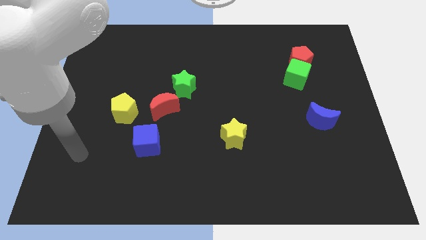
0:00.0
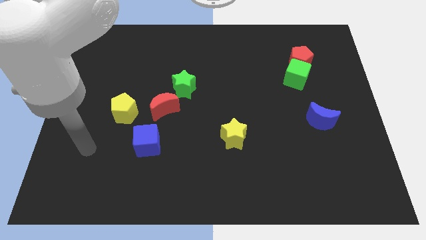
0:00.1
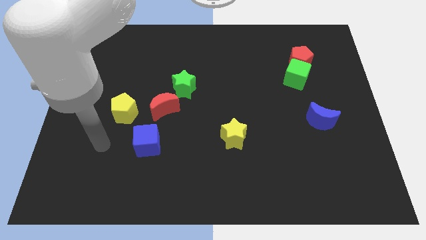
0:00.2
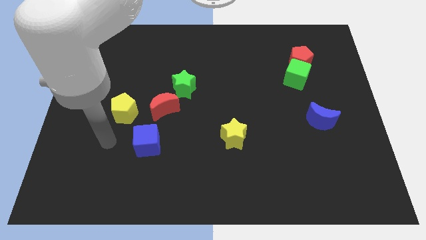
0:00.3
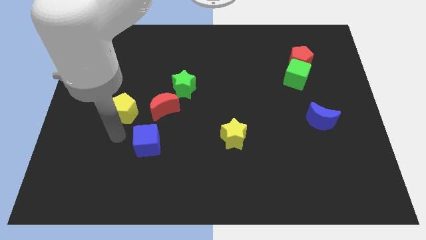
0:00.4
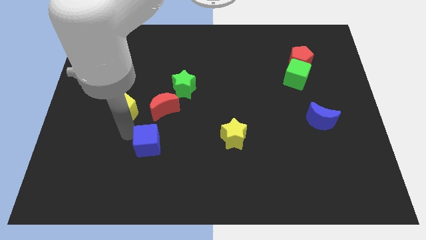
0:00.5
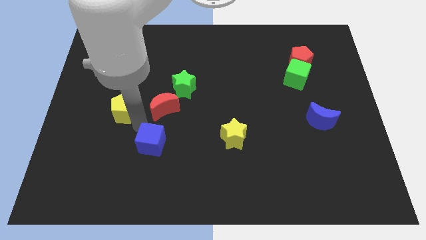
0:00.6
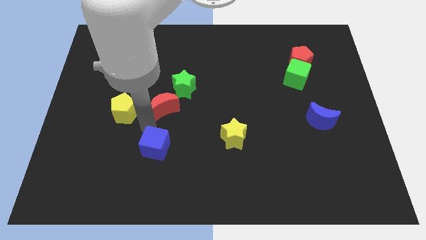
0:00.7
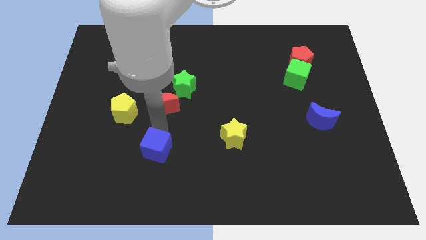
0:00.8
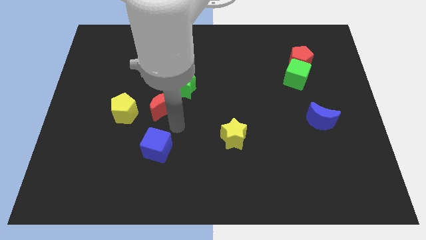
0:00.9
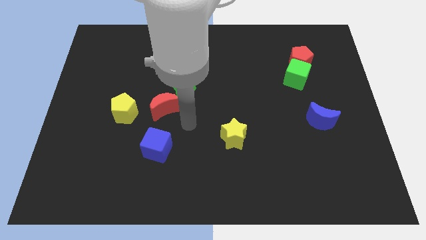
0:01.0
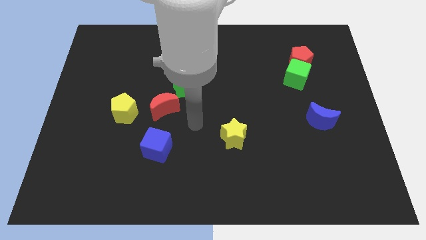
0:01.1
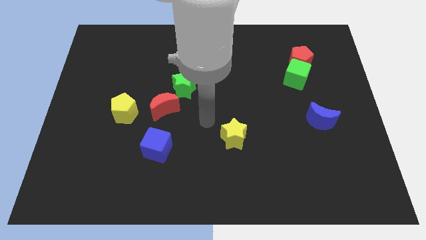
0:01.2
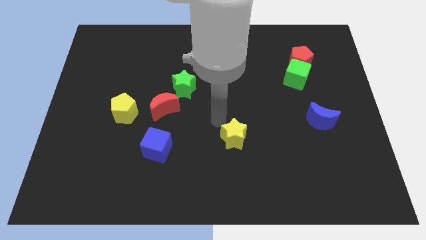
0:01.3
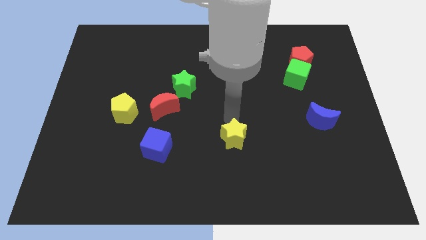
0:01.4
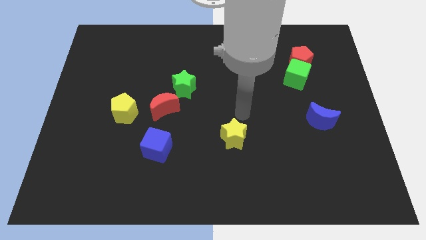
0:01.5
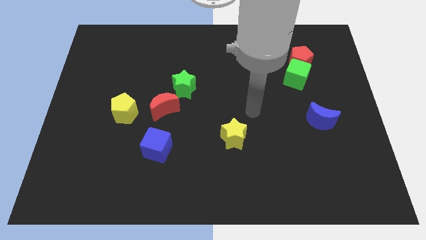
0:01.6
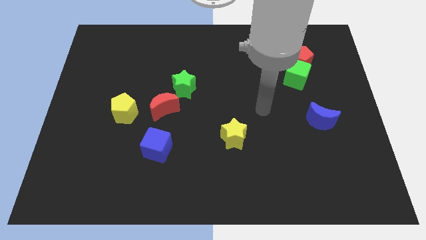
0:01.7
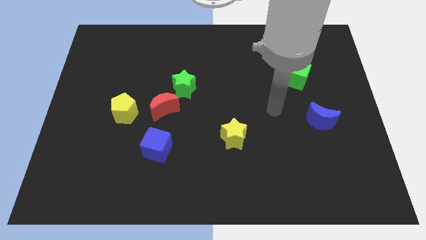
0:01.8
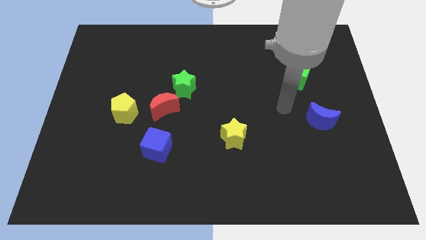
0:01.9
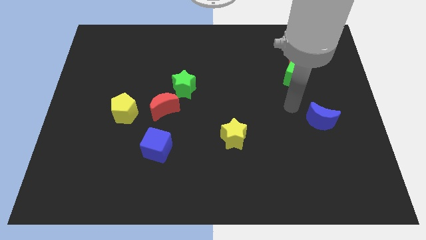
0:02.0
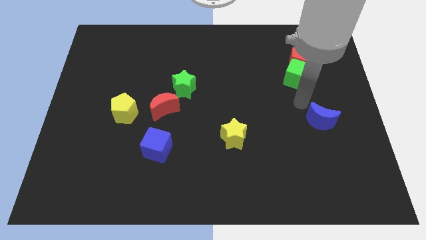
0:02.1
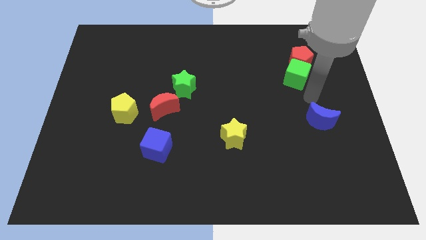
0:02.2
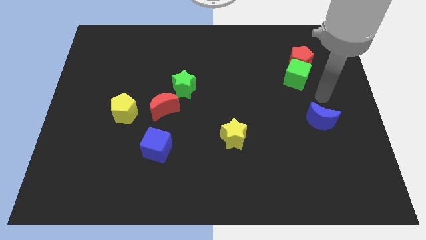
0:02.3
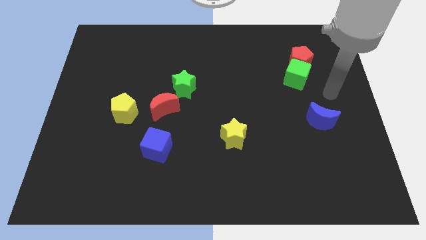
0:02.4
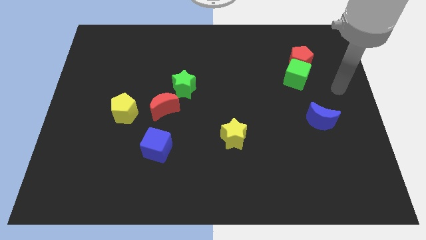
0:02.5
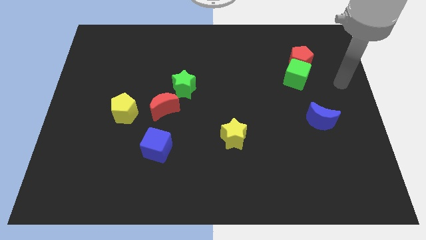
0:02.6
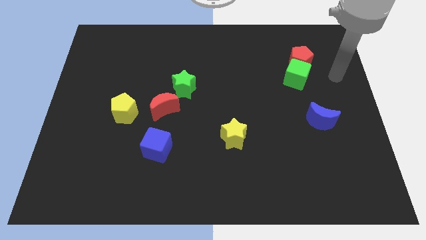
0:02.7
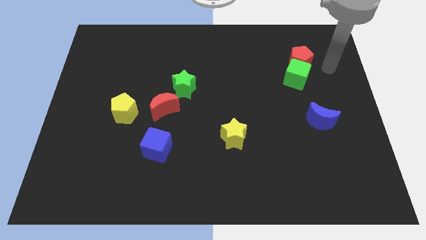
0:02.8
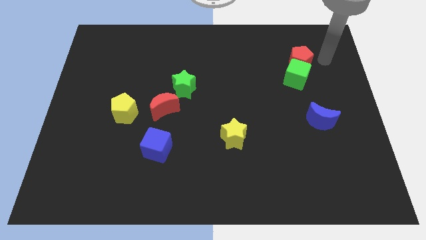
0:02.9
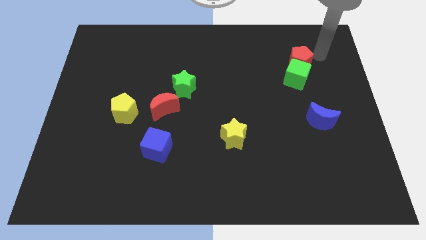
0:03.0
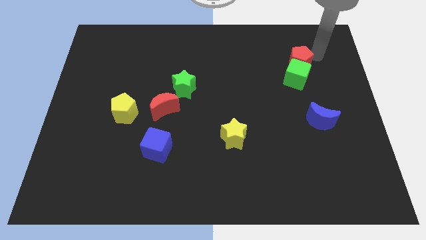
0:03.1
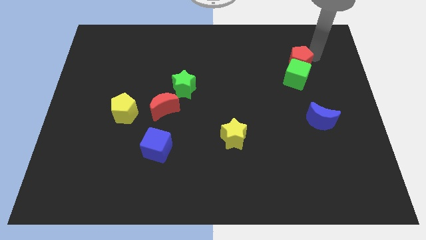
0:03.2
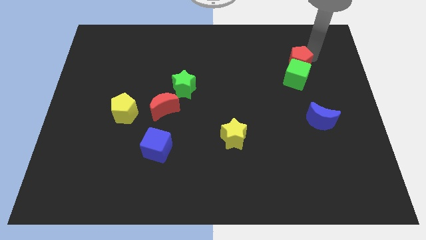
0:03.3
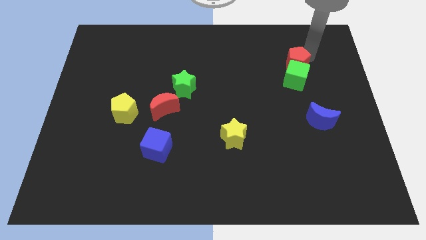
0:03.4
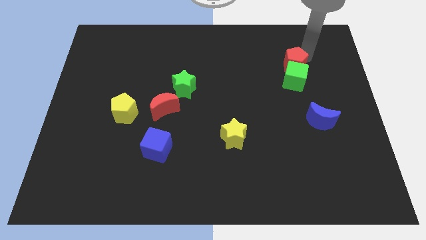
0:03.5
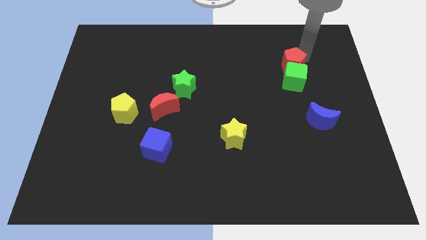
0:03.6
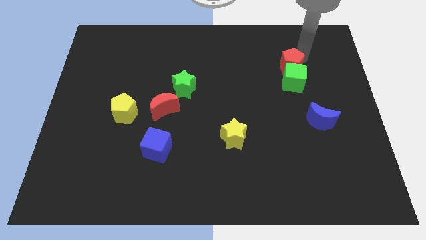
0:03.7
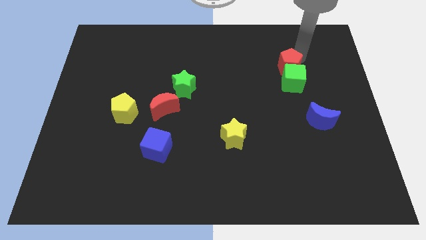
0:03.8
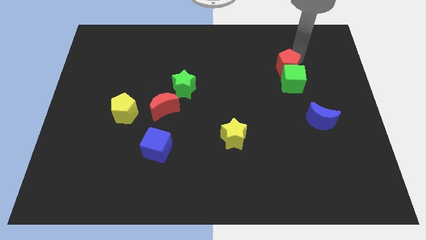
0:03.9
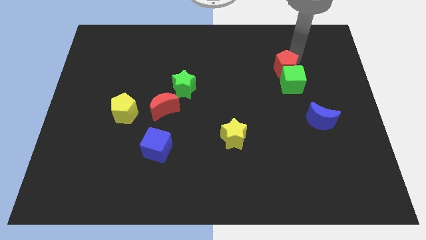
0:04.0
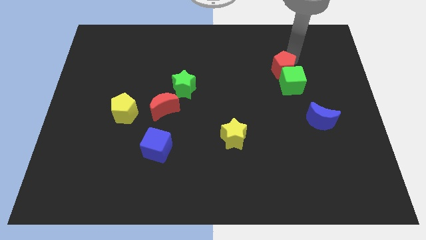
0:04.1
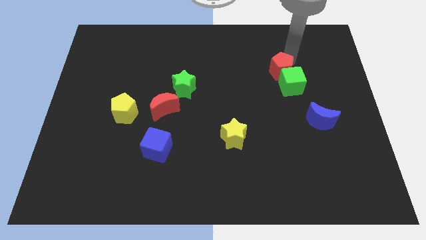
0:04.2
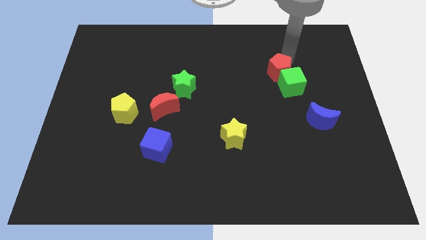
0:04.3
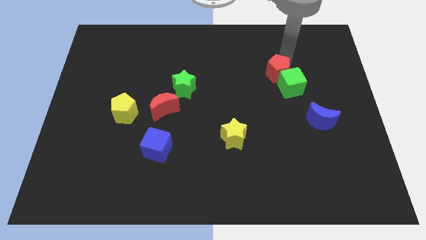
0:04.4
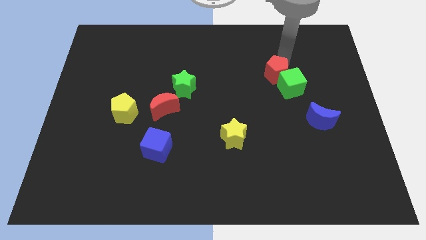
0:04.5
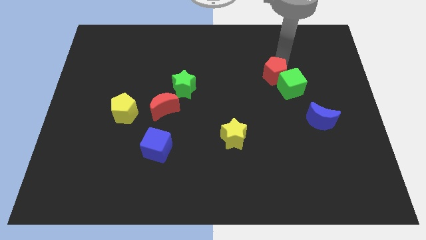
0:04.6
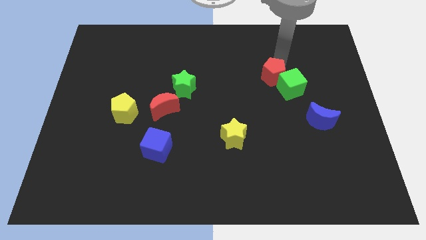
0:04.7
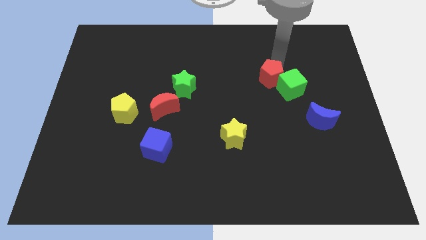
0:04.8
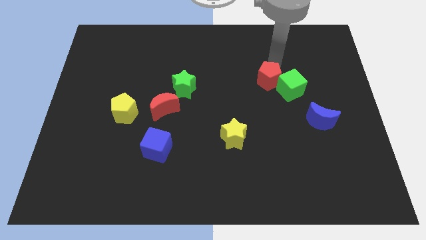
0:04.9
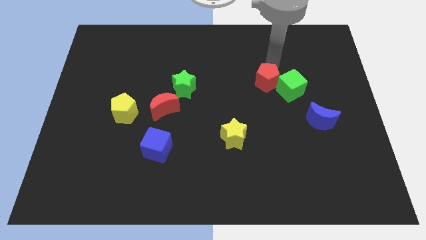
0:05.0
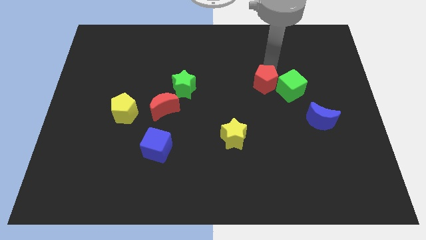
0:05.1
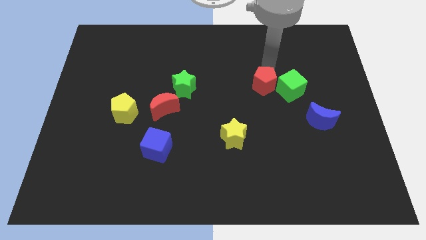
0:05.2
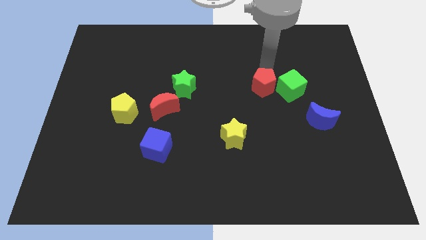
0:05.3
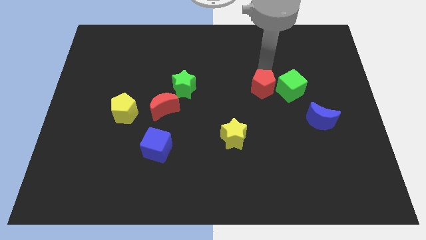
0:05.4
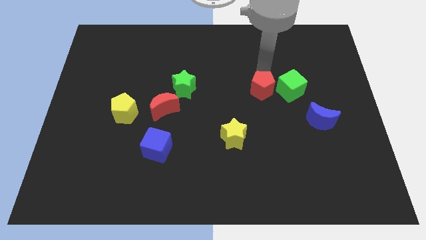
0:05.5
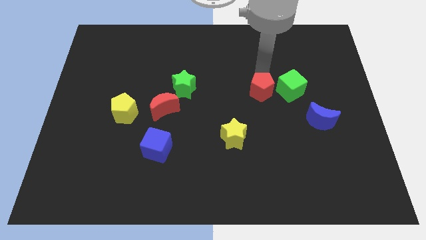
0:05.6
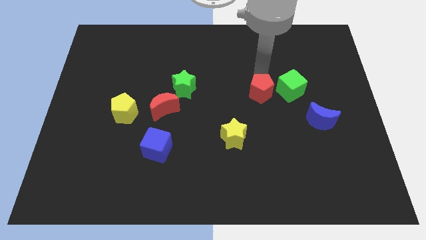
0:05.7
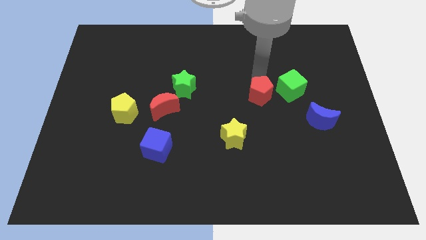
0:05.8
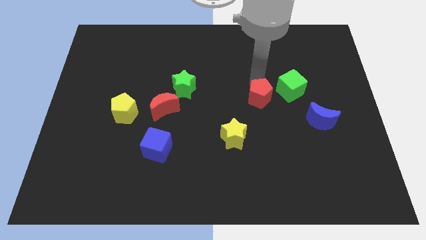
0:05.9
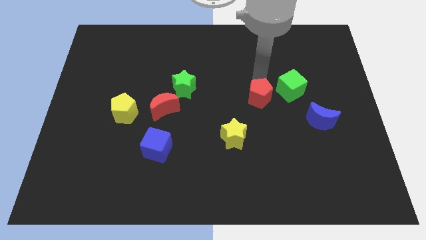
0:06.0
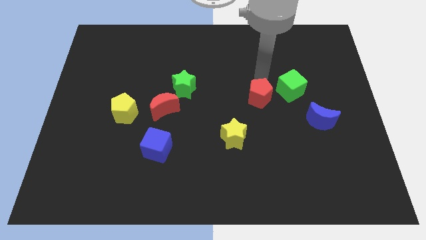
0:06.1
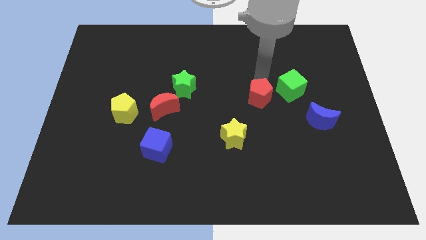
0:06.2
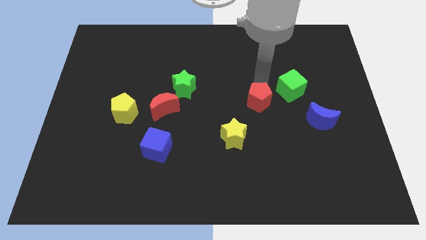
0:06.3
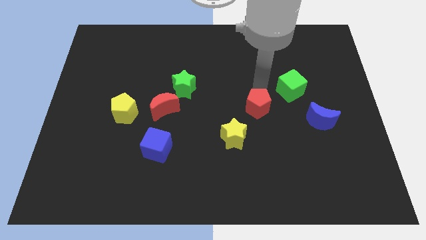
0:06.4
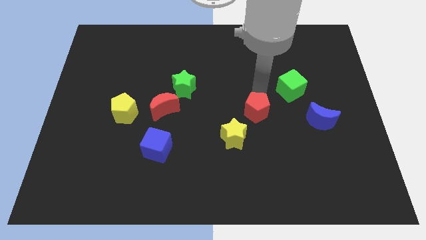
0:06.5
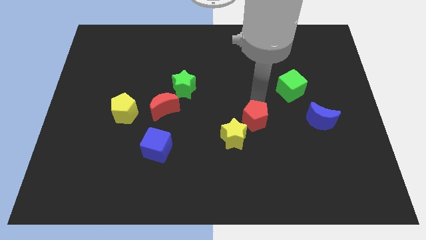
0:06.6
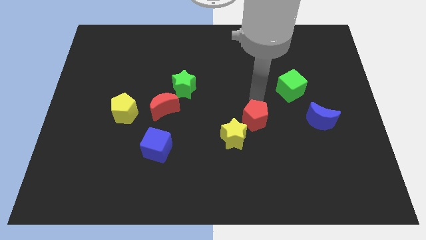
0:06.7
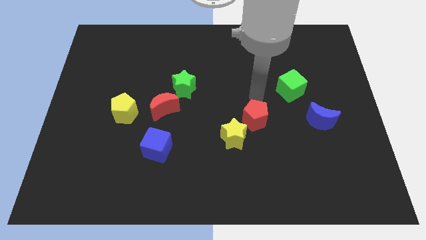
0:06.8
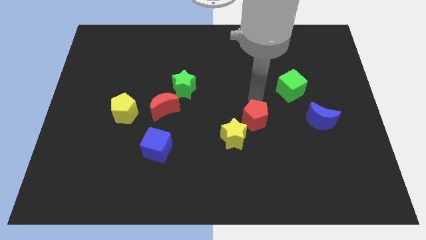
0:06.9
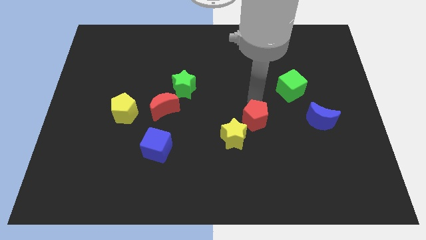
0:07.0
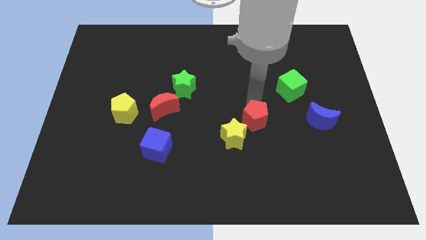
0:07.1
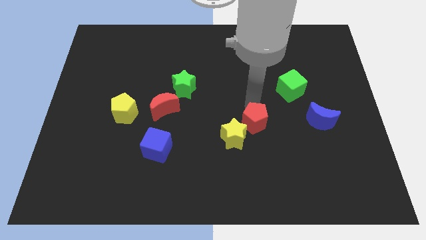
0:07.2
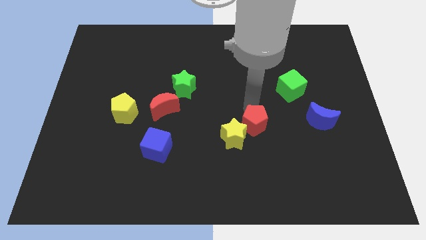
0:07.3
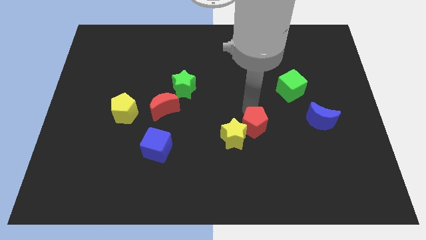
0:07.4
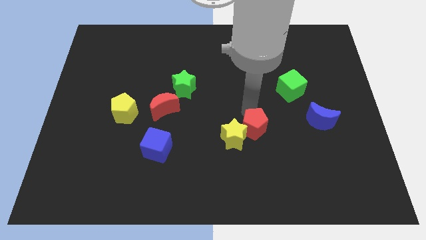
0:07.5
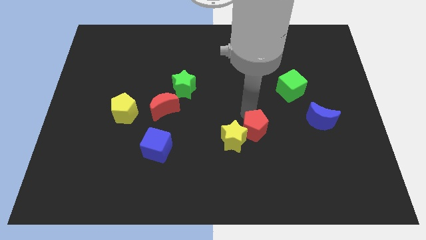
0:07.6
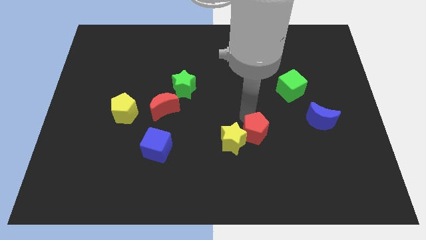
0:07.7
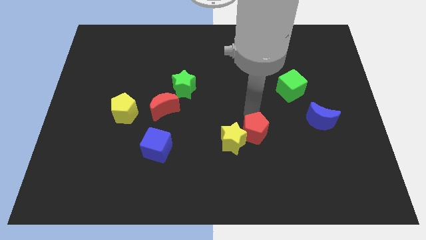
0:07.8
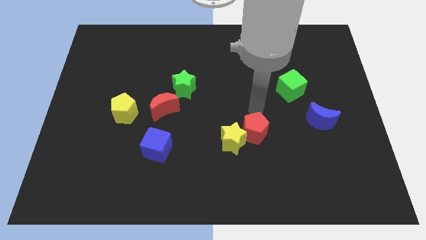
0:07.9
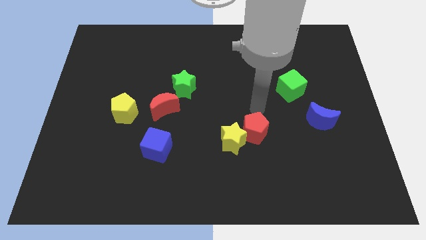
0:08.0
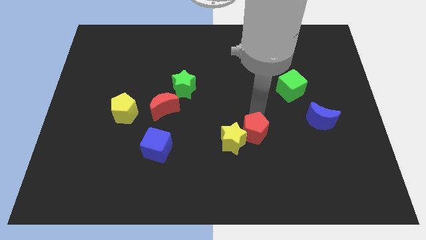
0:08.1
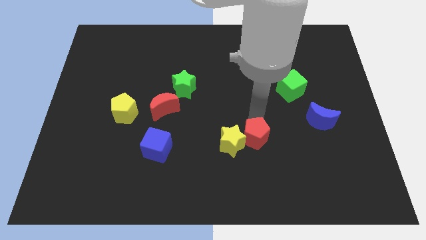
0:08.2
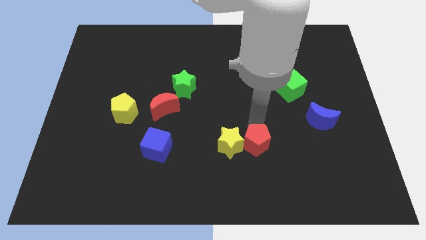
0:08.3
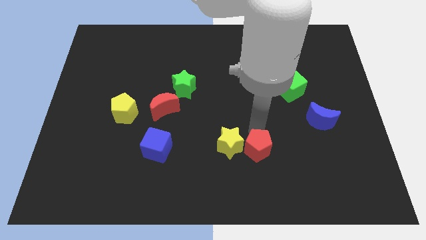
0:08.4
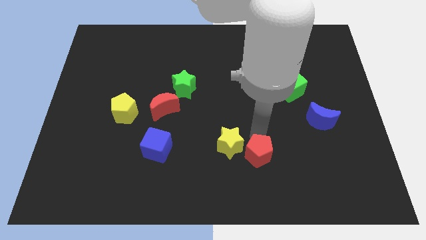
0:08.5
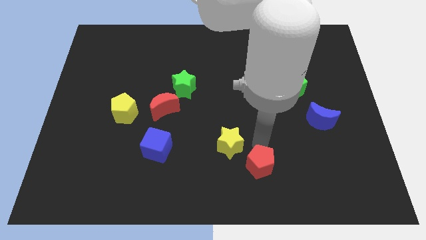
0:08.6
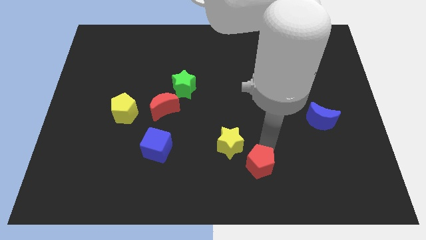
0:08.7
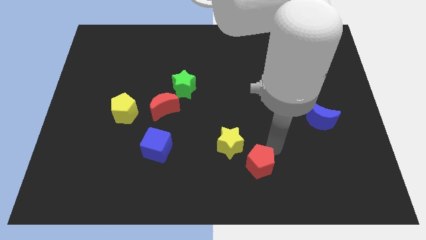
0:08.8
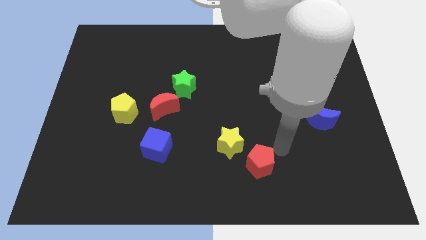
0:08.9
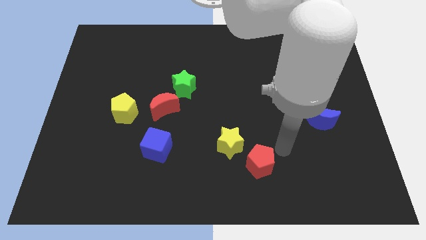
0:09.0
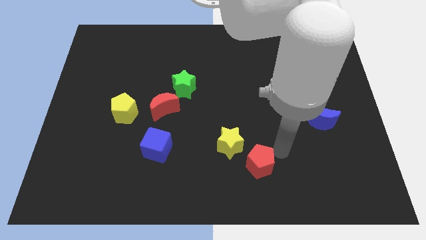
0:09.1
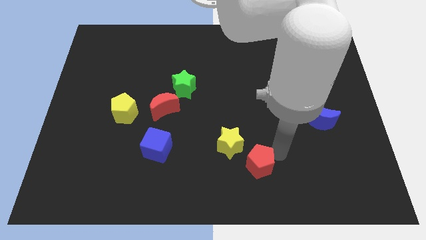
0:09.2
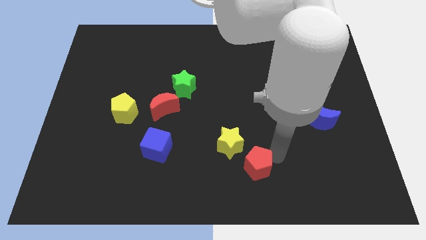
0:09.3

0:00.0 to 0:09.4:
put the red pentagon to the bottom side
